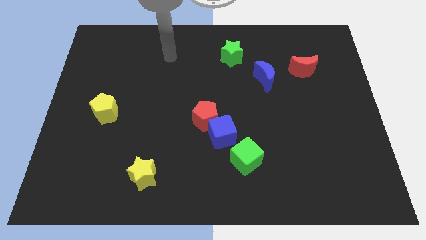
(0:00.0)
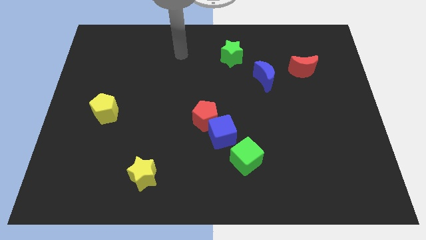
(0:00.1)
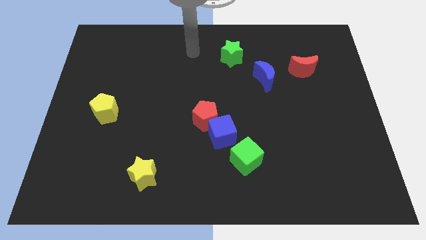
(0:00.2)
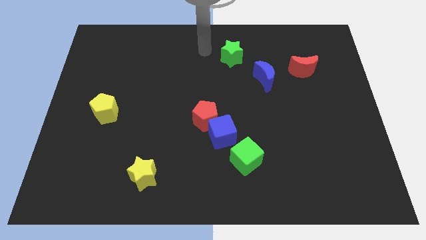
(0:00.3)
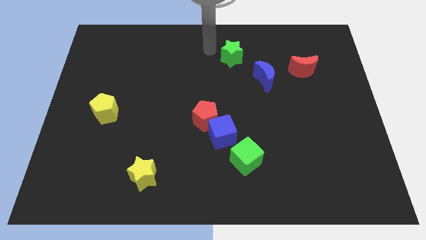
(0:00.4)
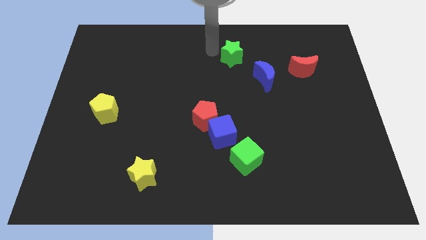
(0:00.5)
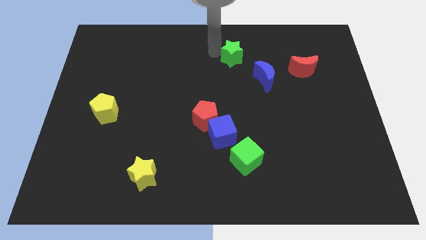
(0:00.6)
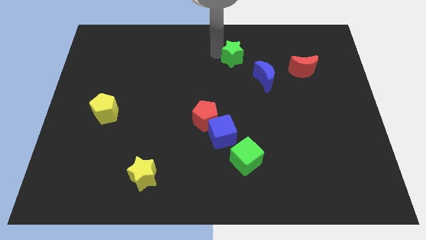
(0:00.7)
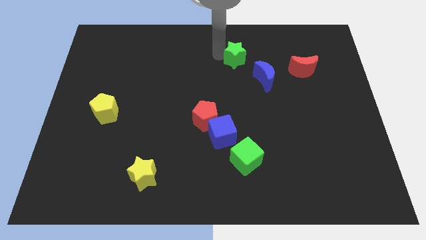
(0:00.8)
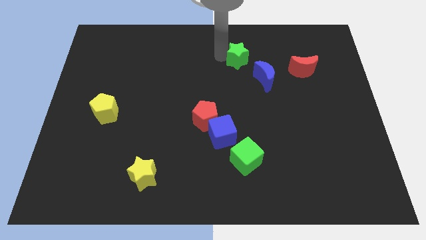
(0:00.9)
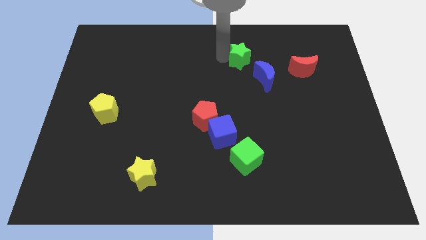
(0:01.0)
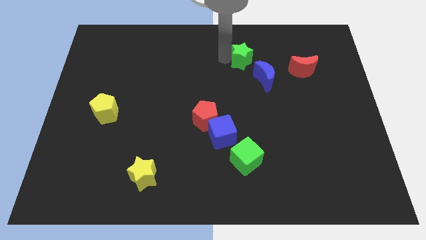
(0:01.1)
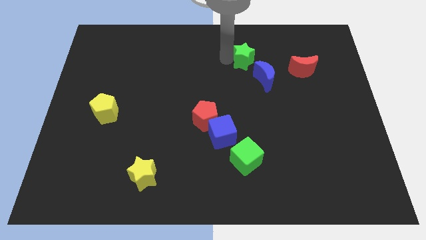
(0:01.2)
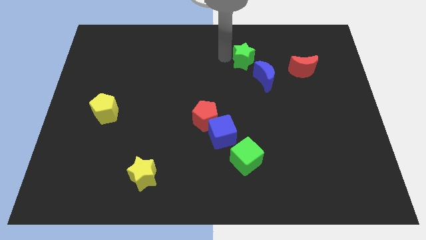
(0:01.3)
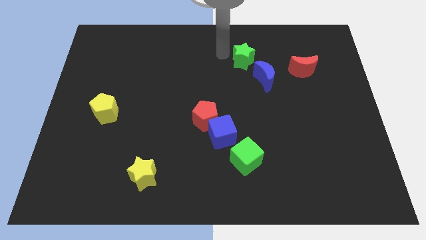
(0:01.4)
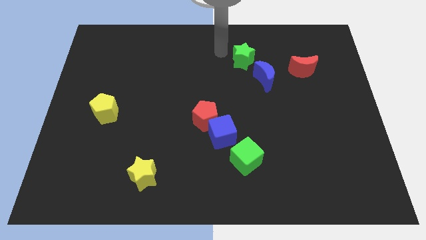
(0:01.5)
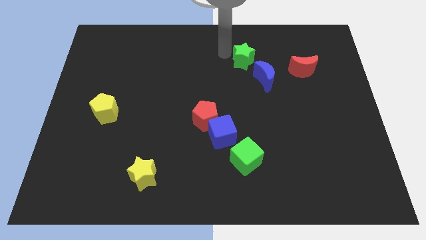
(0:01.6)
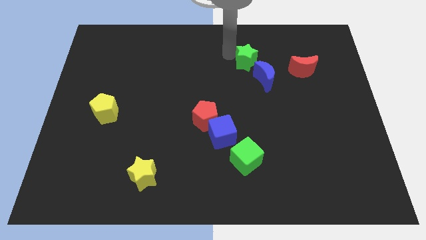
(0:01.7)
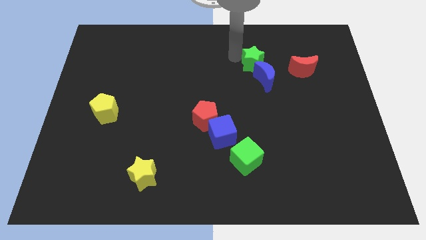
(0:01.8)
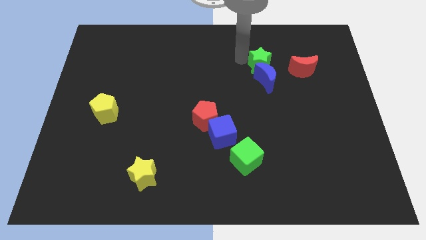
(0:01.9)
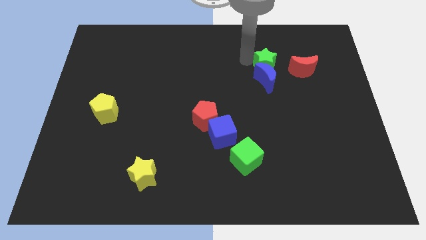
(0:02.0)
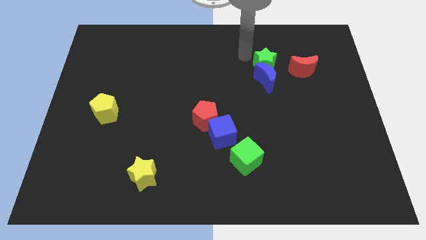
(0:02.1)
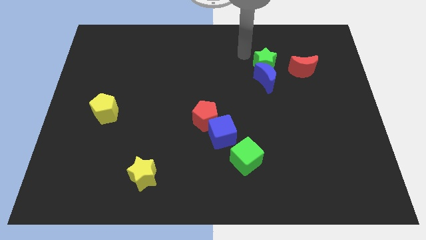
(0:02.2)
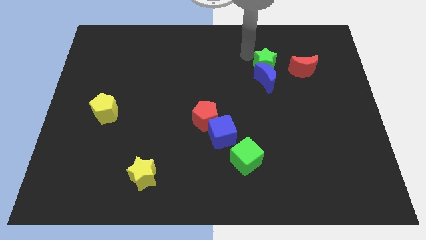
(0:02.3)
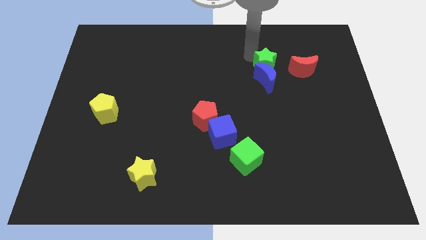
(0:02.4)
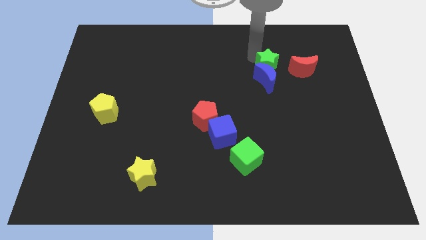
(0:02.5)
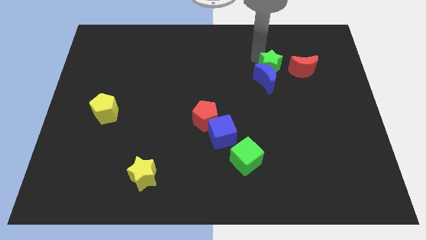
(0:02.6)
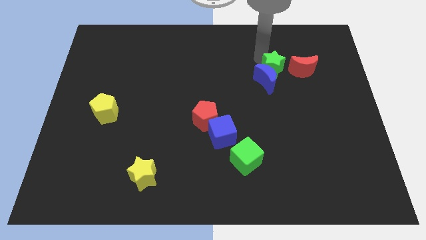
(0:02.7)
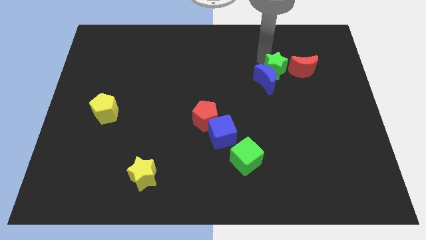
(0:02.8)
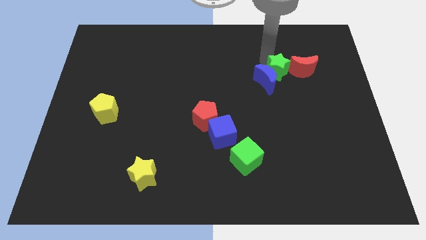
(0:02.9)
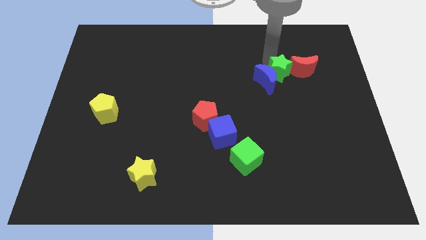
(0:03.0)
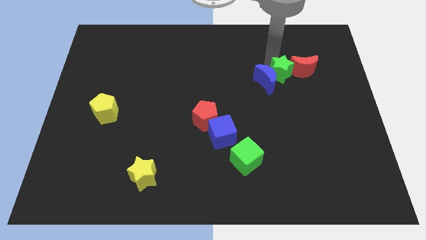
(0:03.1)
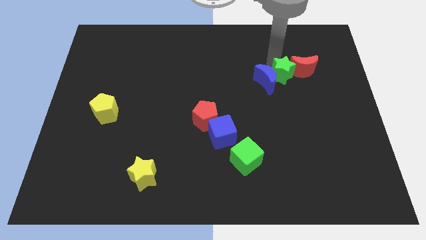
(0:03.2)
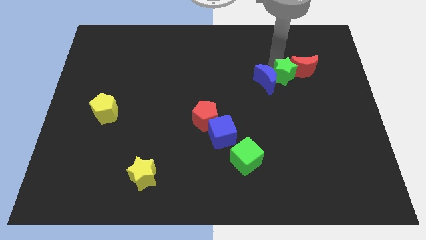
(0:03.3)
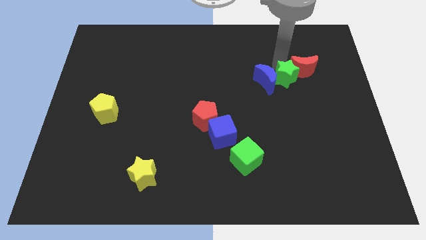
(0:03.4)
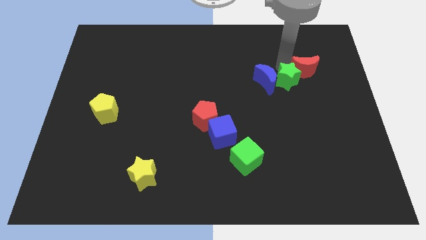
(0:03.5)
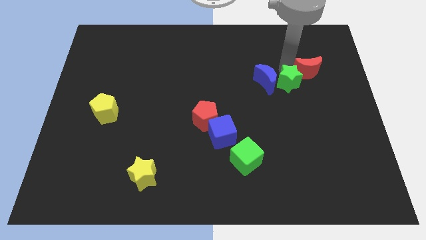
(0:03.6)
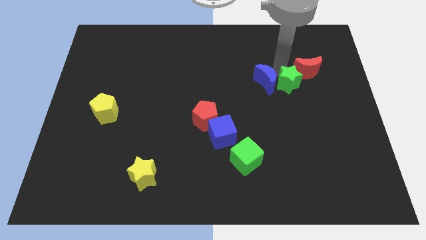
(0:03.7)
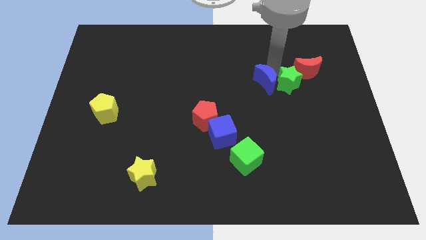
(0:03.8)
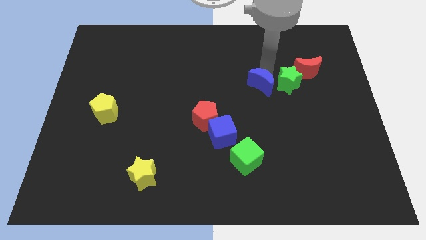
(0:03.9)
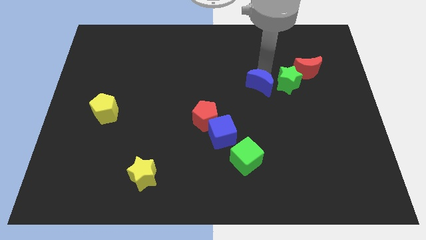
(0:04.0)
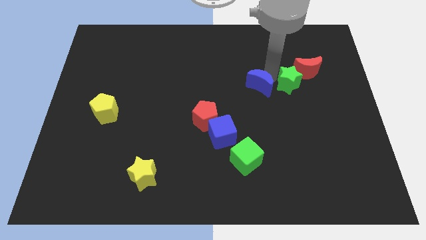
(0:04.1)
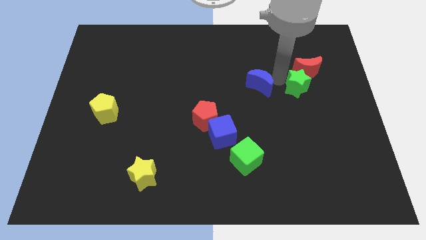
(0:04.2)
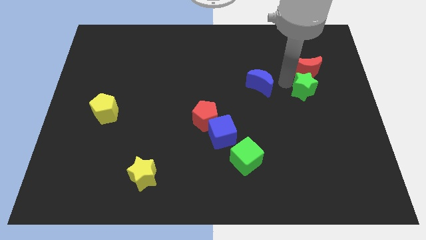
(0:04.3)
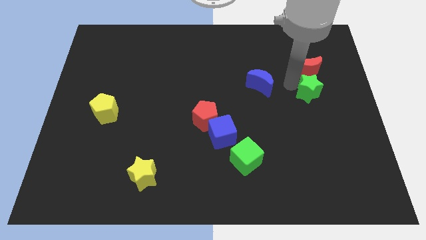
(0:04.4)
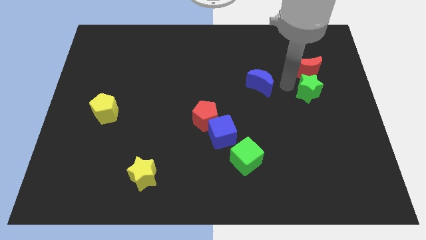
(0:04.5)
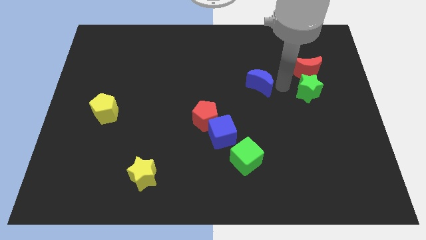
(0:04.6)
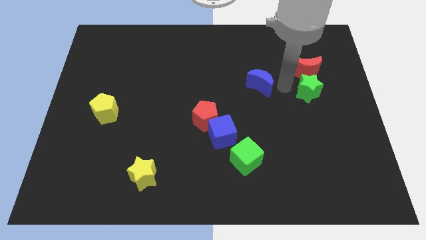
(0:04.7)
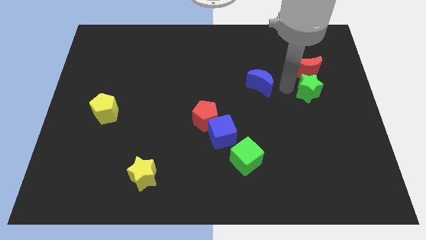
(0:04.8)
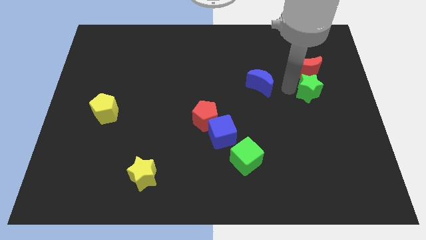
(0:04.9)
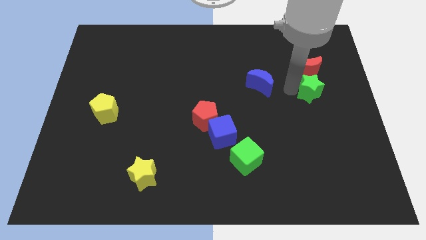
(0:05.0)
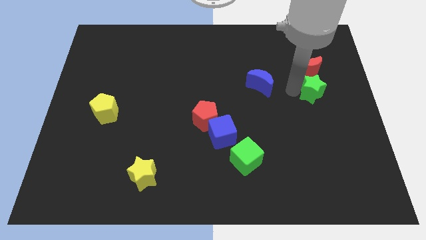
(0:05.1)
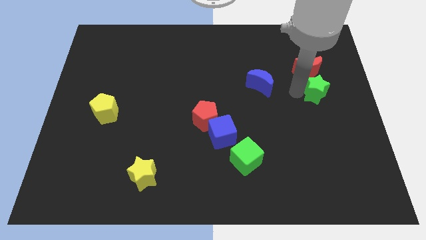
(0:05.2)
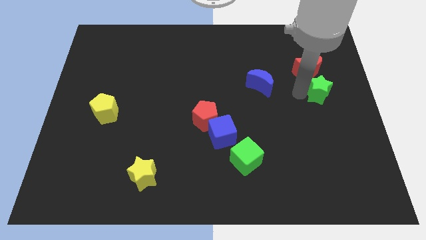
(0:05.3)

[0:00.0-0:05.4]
put the green star to the right side

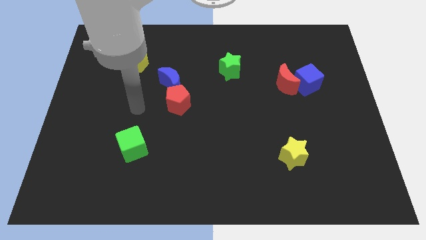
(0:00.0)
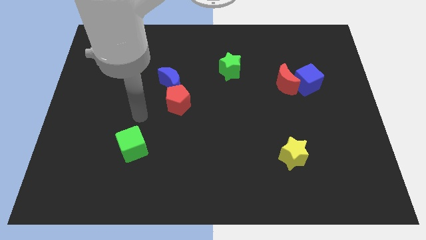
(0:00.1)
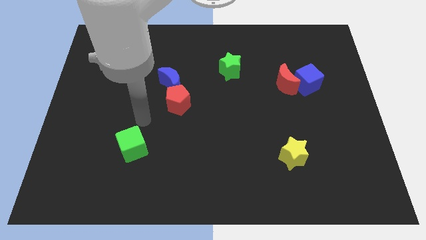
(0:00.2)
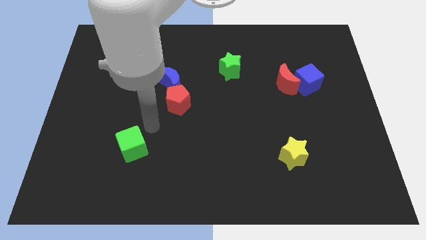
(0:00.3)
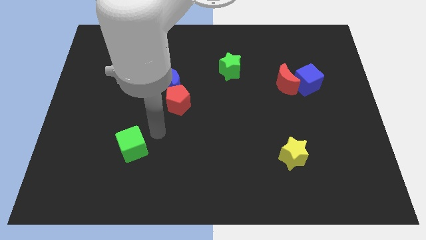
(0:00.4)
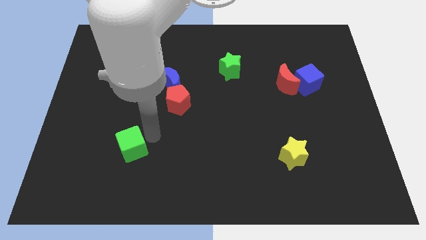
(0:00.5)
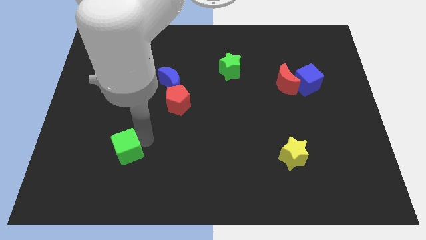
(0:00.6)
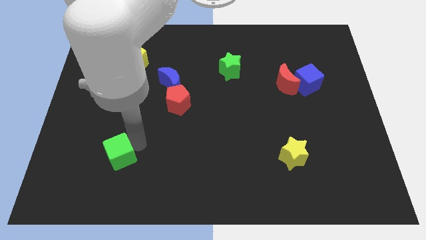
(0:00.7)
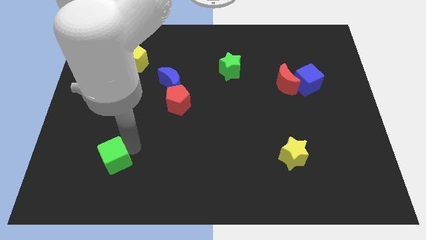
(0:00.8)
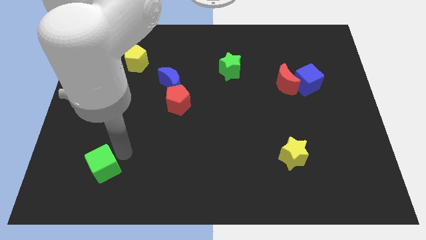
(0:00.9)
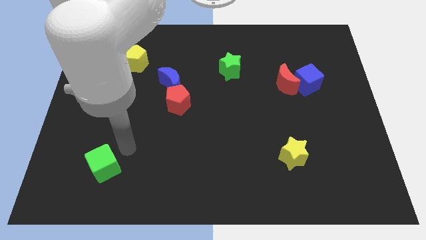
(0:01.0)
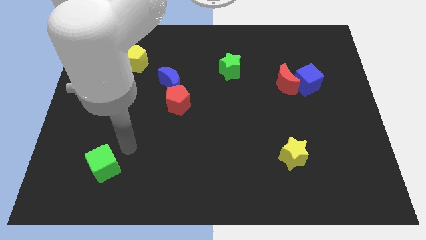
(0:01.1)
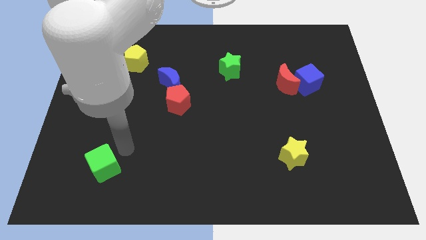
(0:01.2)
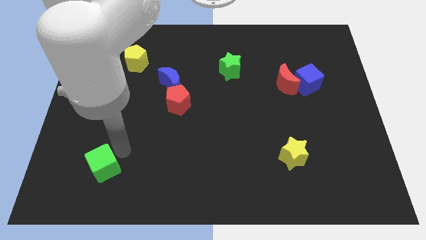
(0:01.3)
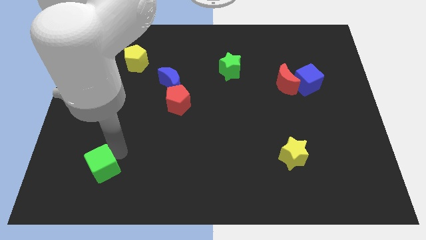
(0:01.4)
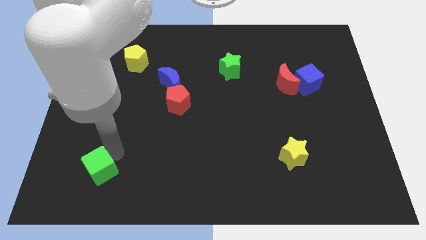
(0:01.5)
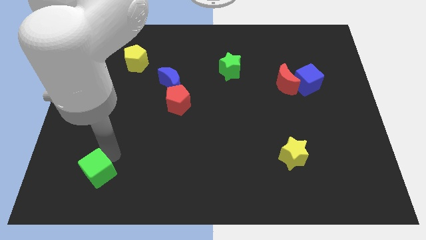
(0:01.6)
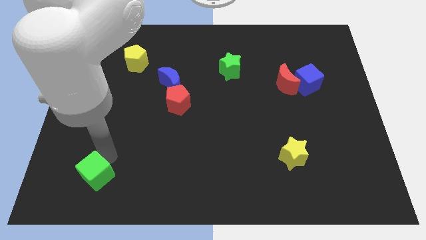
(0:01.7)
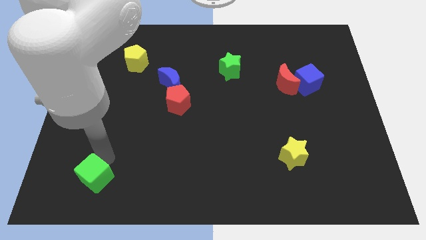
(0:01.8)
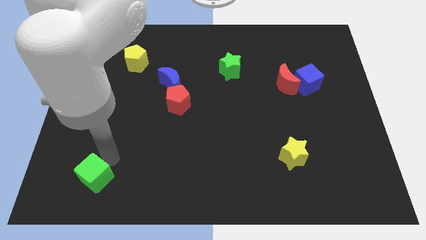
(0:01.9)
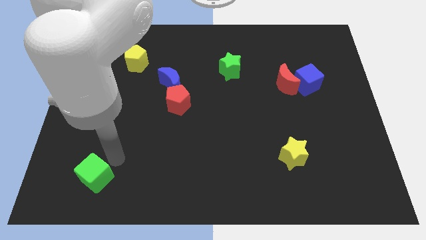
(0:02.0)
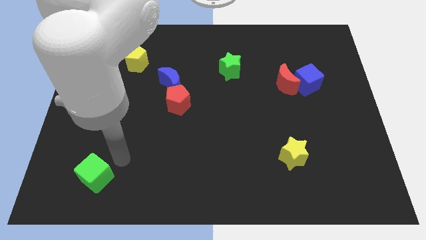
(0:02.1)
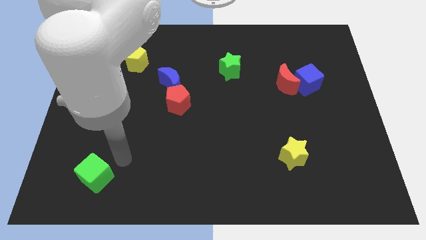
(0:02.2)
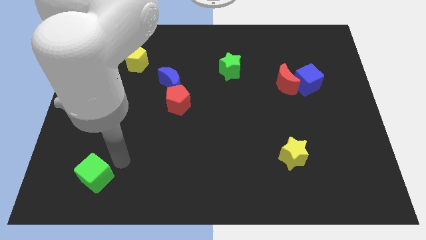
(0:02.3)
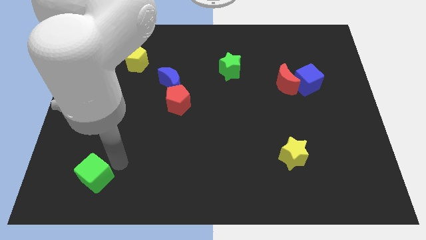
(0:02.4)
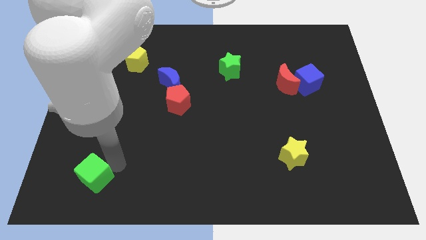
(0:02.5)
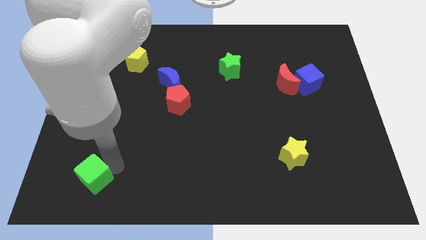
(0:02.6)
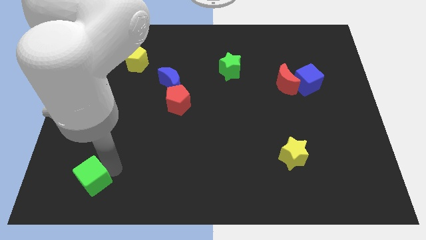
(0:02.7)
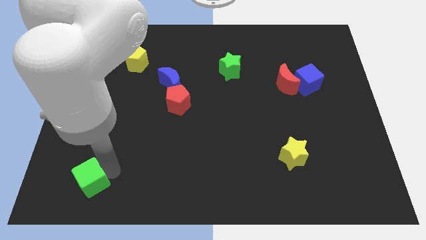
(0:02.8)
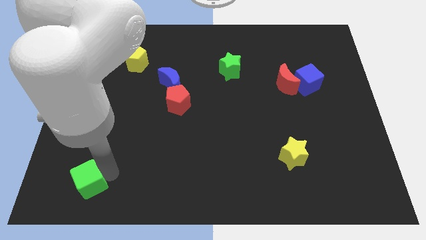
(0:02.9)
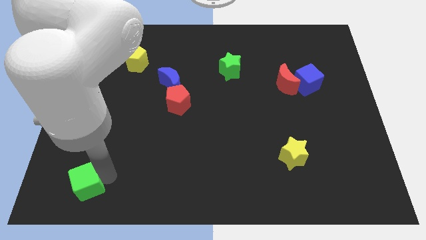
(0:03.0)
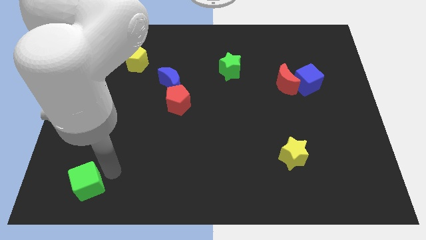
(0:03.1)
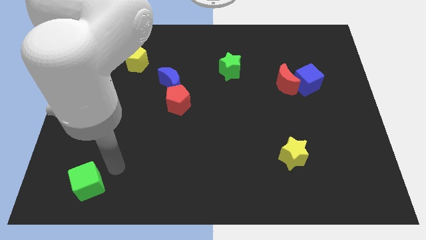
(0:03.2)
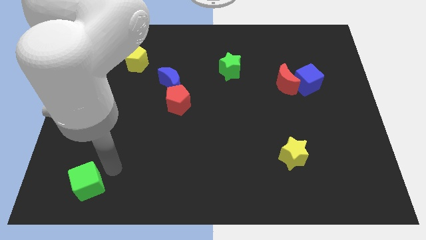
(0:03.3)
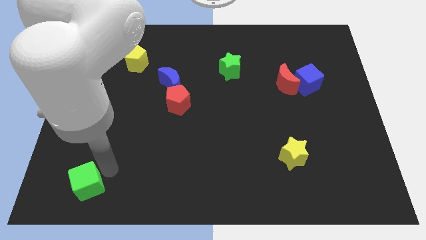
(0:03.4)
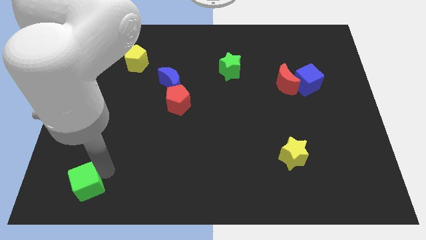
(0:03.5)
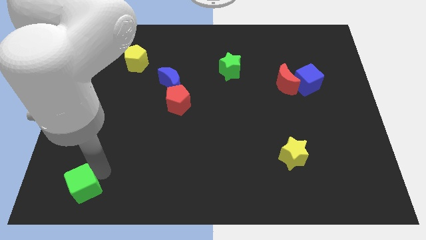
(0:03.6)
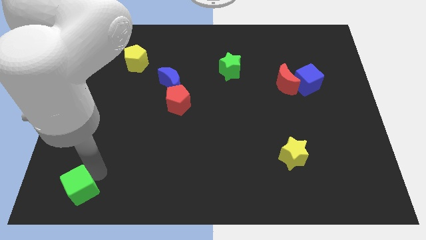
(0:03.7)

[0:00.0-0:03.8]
push the green cube to the bottom left of the board
